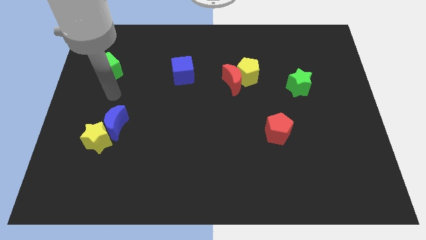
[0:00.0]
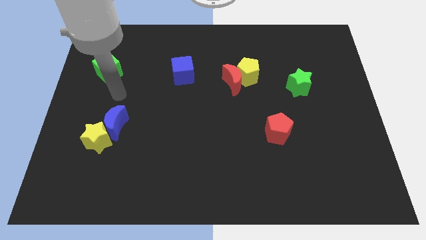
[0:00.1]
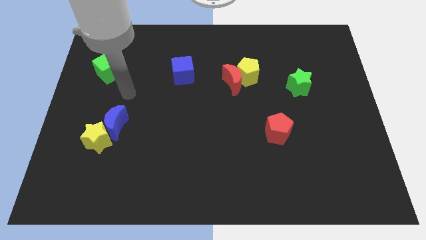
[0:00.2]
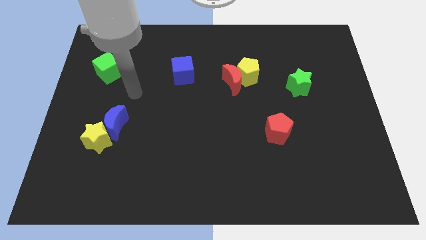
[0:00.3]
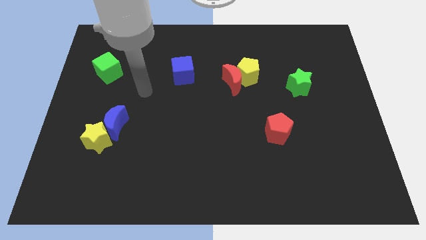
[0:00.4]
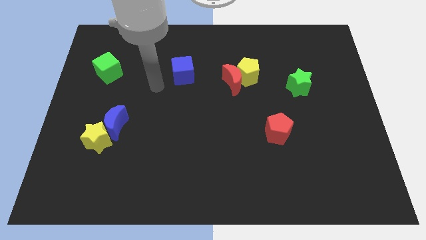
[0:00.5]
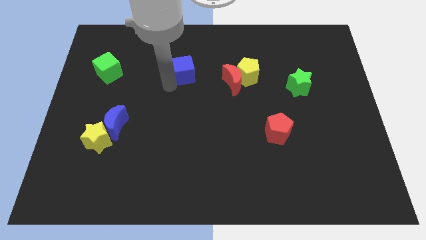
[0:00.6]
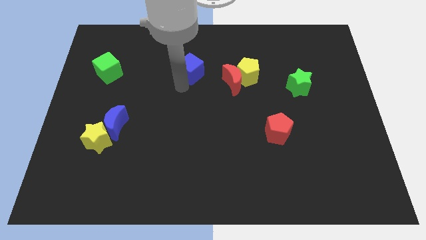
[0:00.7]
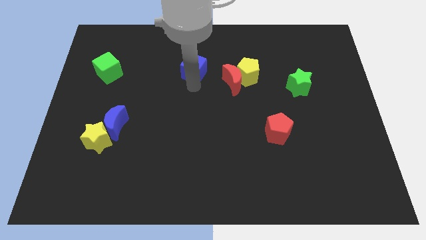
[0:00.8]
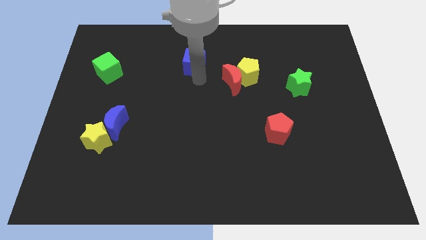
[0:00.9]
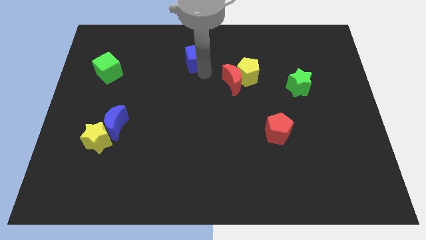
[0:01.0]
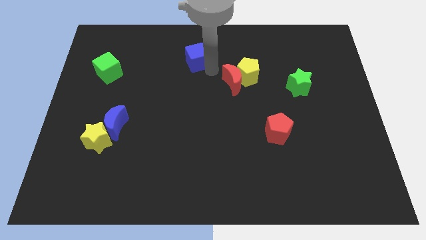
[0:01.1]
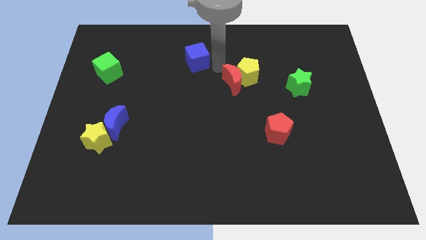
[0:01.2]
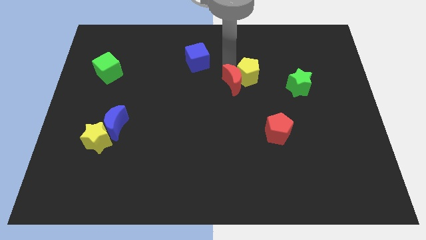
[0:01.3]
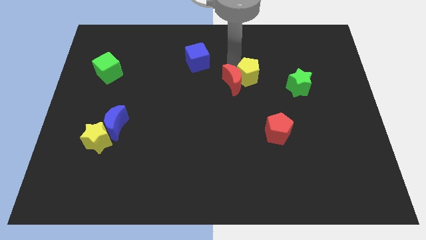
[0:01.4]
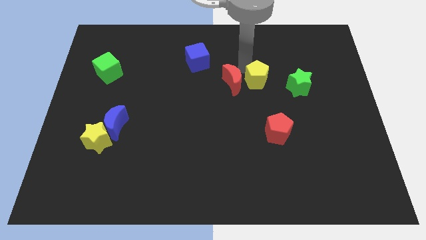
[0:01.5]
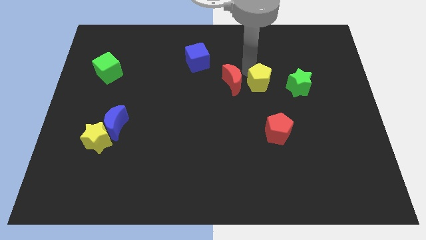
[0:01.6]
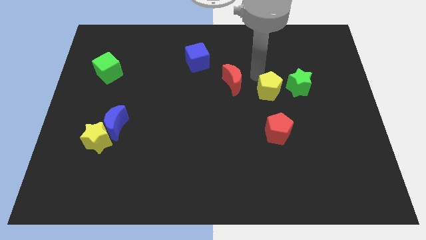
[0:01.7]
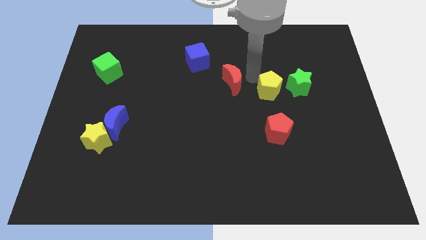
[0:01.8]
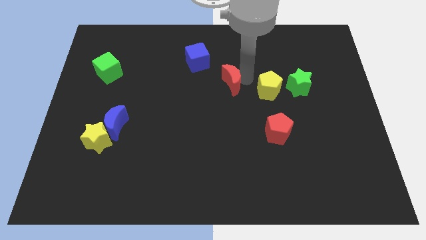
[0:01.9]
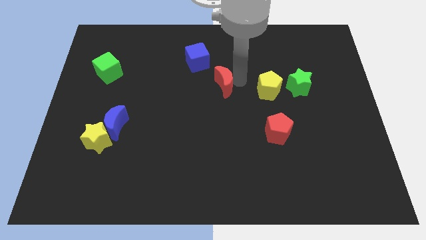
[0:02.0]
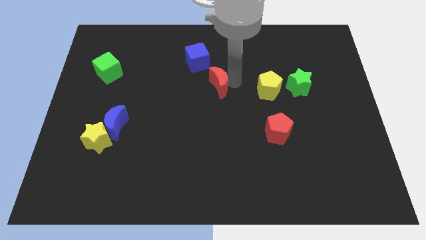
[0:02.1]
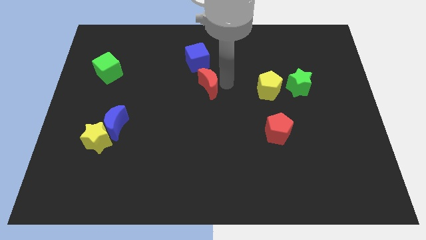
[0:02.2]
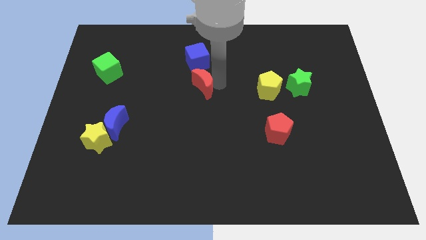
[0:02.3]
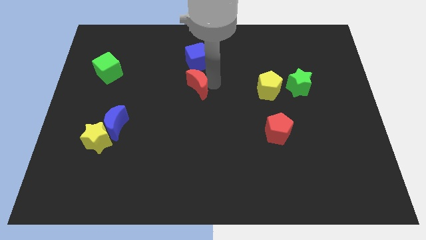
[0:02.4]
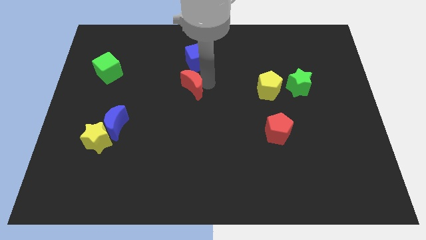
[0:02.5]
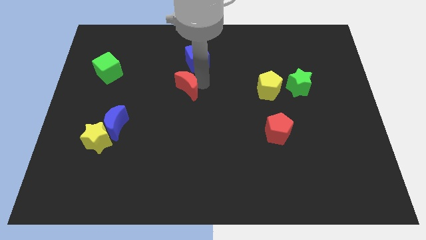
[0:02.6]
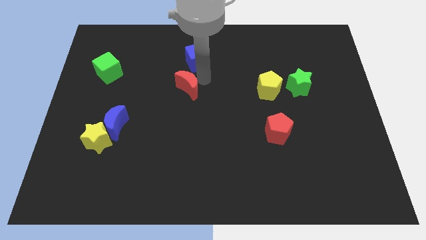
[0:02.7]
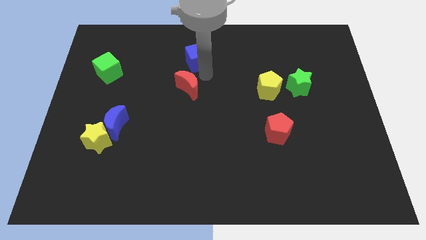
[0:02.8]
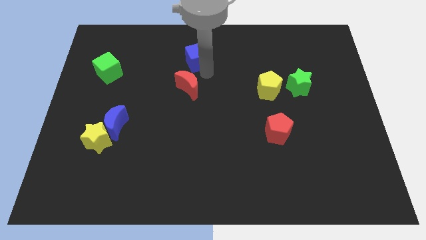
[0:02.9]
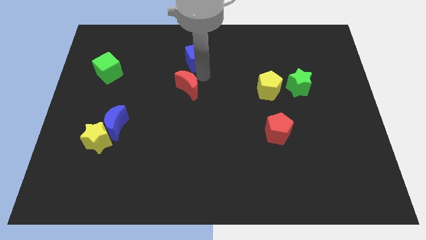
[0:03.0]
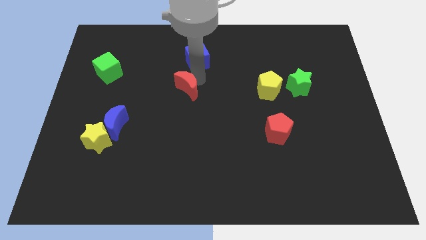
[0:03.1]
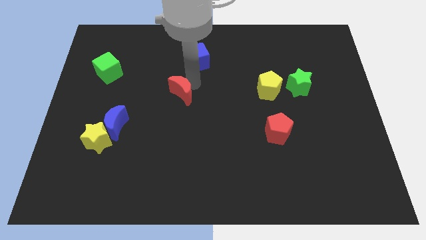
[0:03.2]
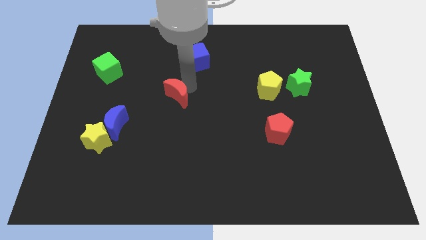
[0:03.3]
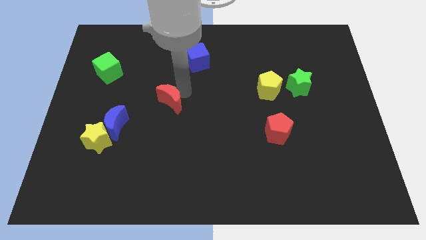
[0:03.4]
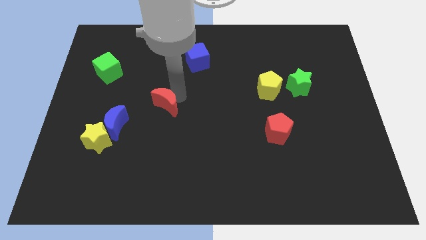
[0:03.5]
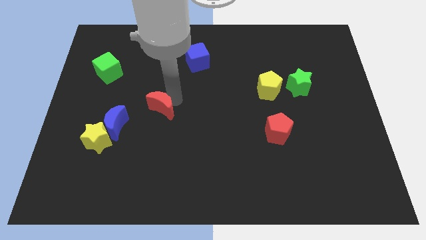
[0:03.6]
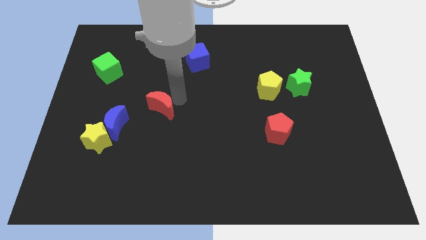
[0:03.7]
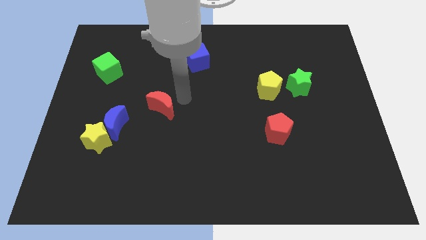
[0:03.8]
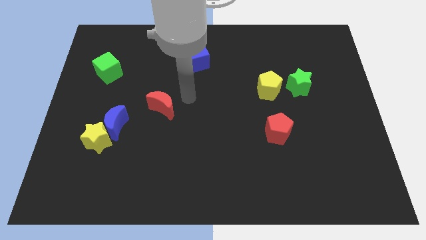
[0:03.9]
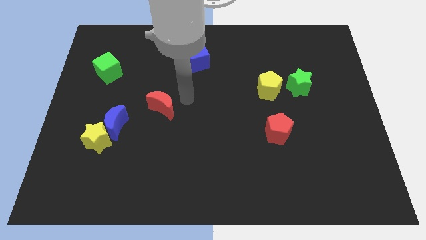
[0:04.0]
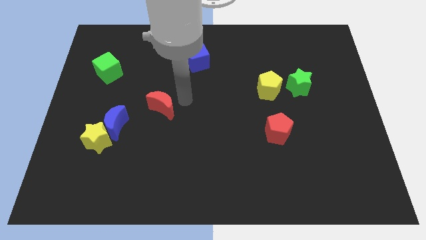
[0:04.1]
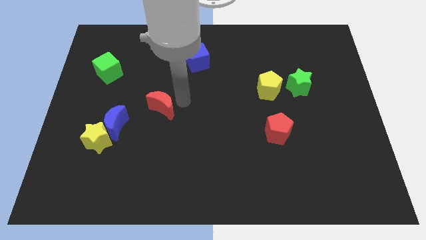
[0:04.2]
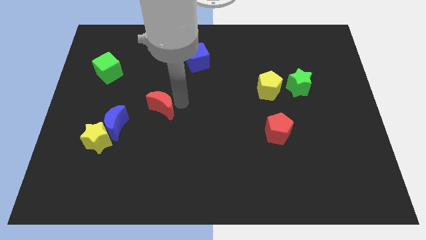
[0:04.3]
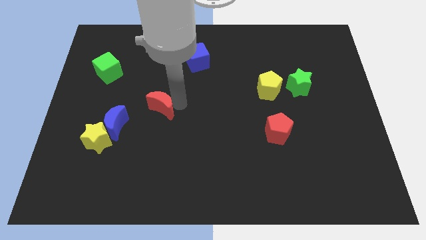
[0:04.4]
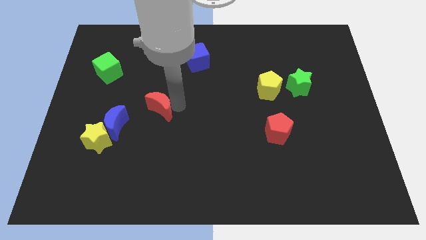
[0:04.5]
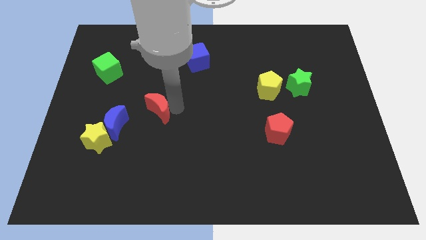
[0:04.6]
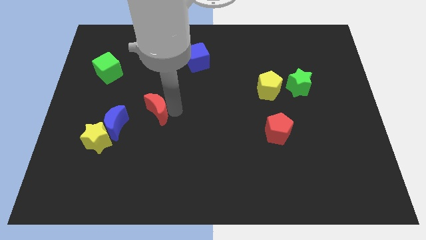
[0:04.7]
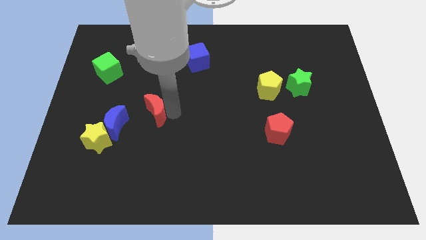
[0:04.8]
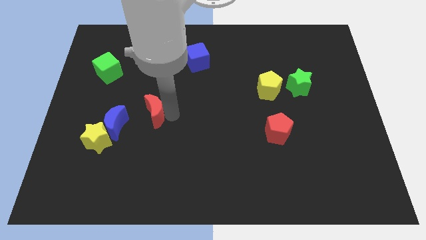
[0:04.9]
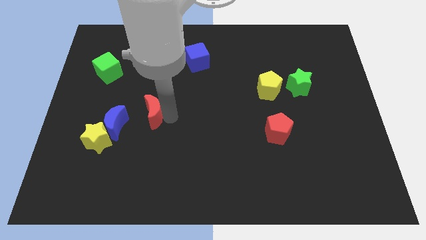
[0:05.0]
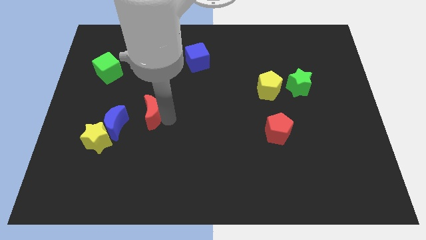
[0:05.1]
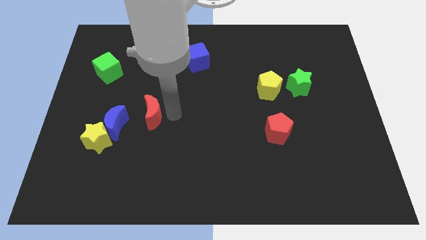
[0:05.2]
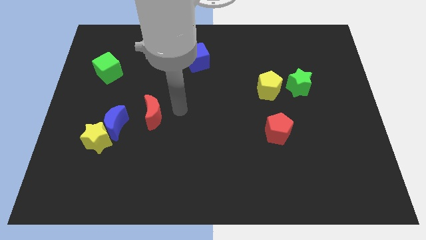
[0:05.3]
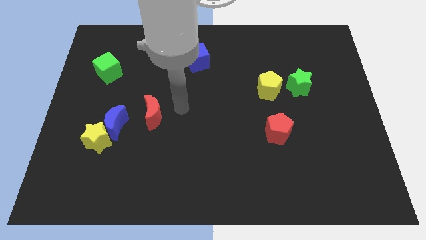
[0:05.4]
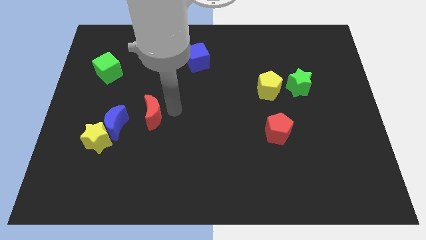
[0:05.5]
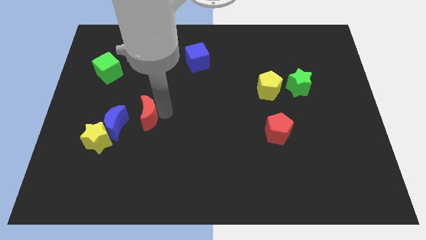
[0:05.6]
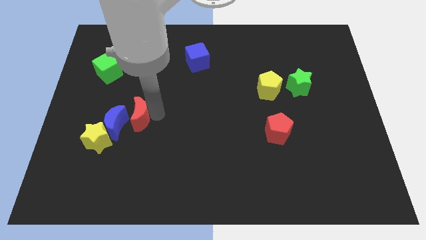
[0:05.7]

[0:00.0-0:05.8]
push the red moon close to the blue moon

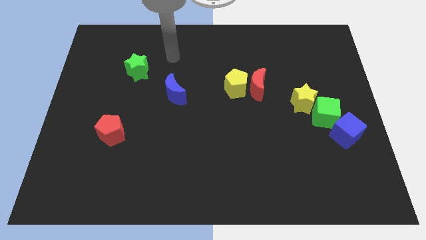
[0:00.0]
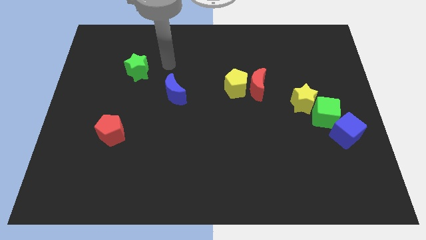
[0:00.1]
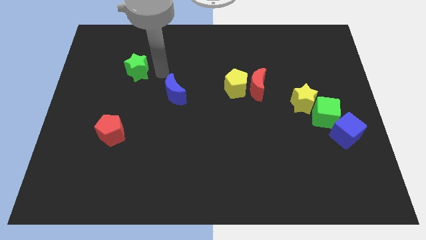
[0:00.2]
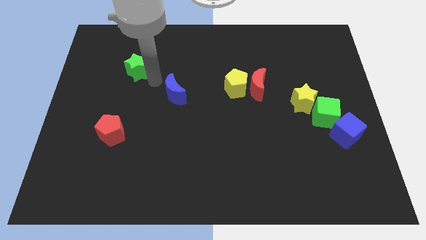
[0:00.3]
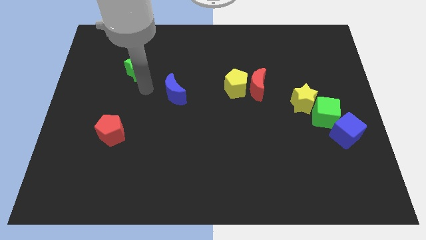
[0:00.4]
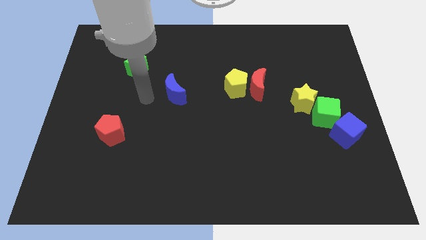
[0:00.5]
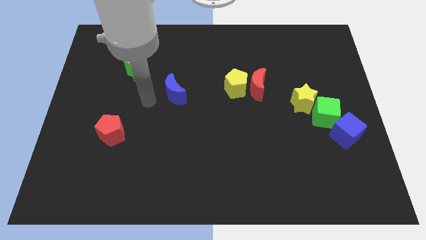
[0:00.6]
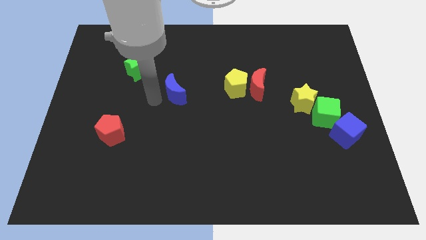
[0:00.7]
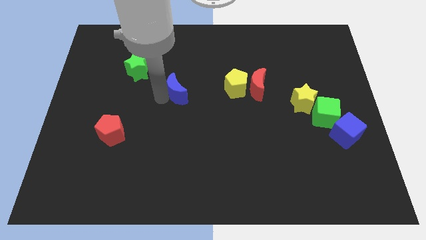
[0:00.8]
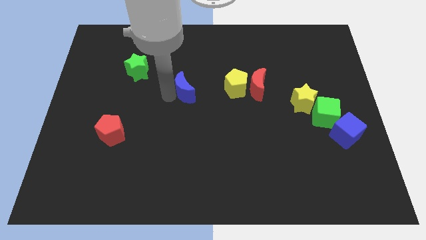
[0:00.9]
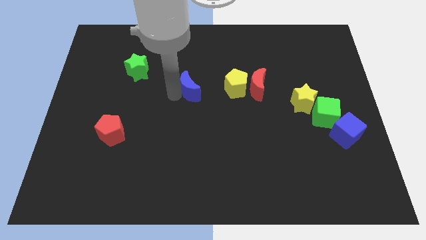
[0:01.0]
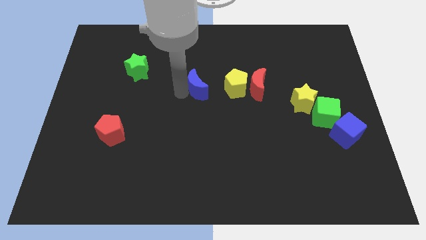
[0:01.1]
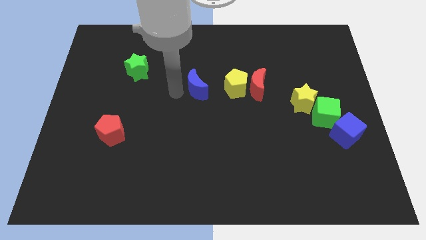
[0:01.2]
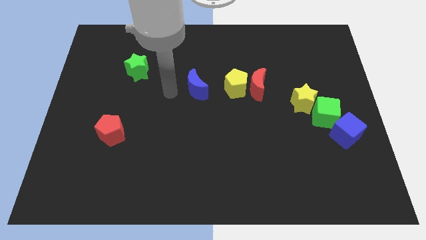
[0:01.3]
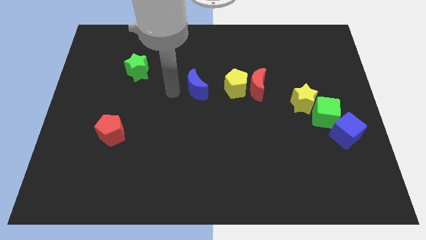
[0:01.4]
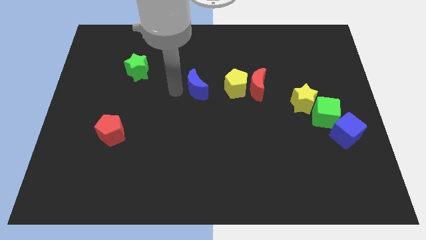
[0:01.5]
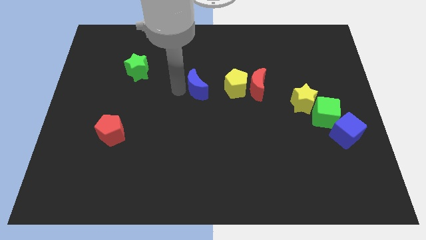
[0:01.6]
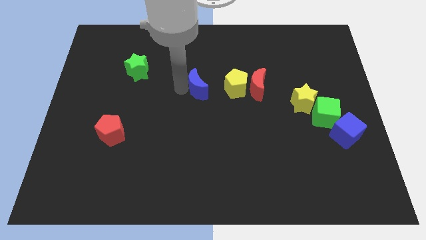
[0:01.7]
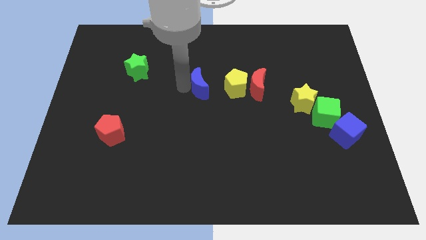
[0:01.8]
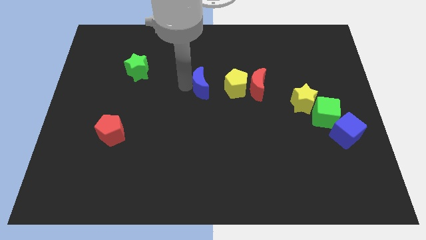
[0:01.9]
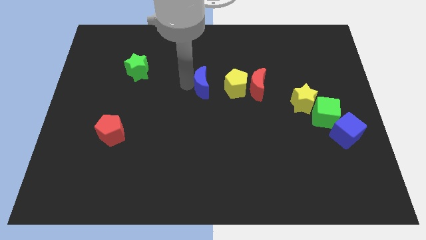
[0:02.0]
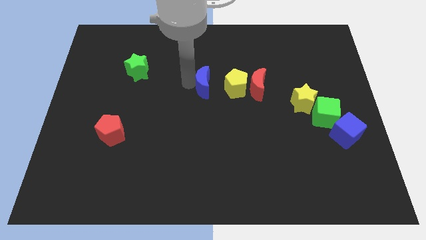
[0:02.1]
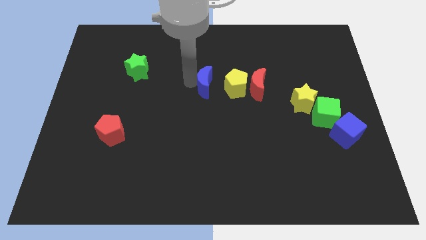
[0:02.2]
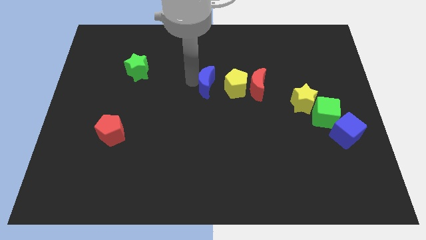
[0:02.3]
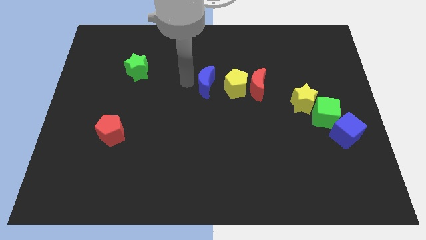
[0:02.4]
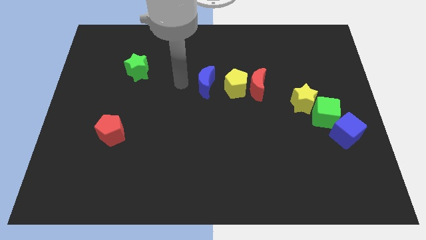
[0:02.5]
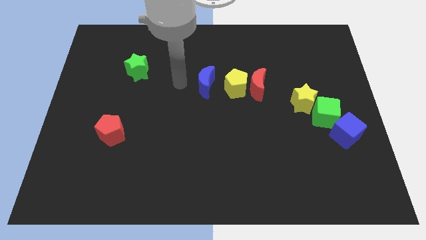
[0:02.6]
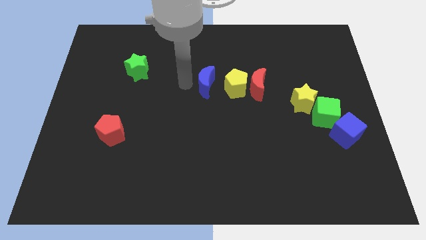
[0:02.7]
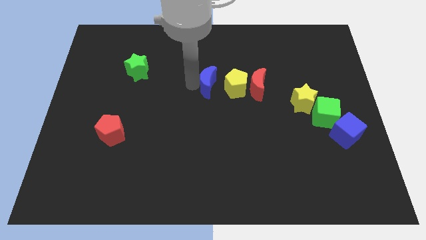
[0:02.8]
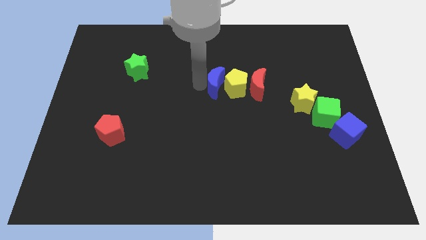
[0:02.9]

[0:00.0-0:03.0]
put the blue moon next to the yellow pentagon
